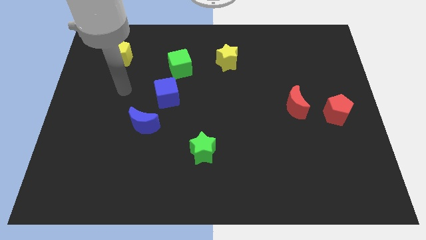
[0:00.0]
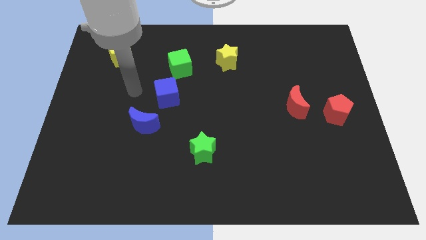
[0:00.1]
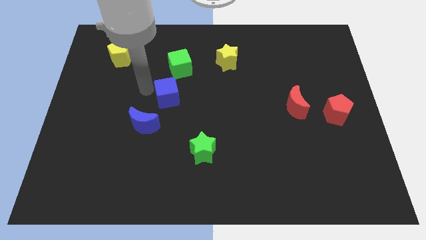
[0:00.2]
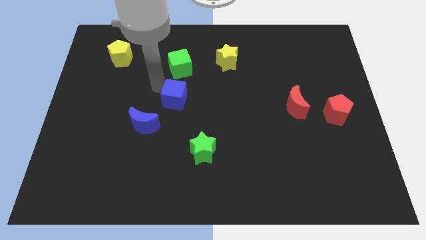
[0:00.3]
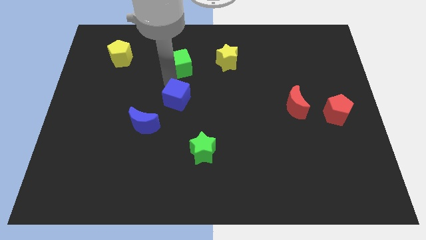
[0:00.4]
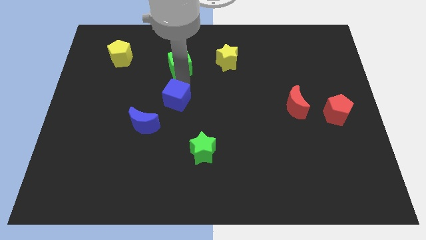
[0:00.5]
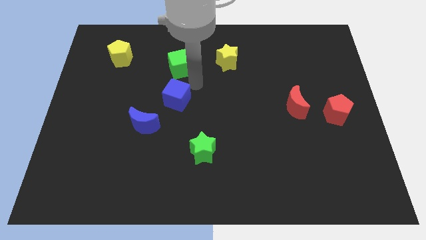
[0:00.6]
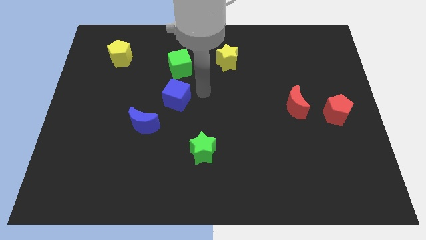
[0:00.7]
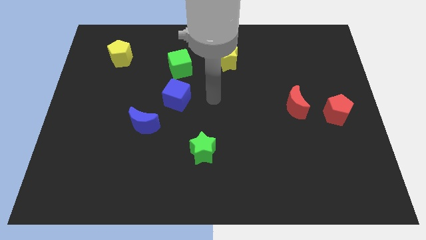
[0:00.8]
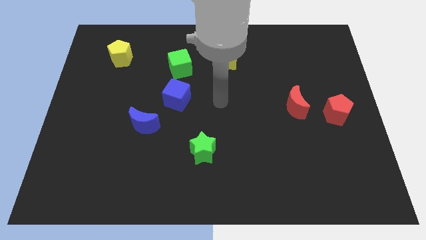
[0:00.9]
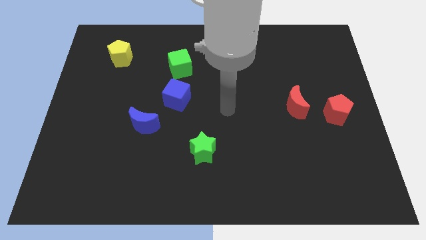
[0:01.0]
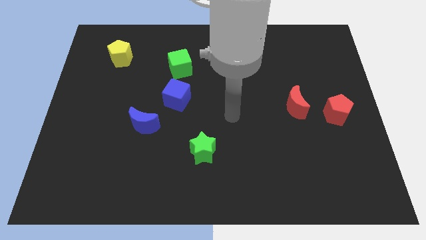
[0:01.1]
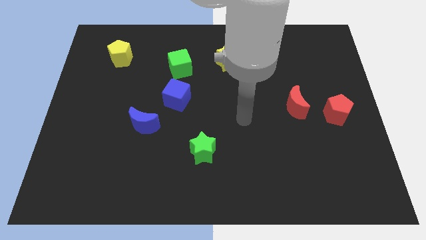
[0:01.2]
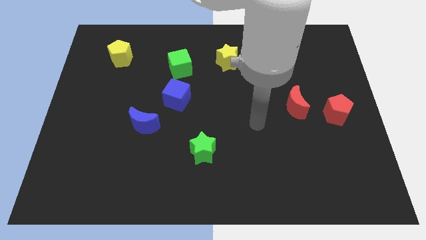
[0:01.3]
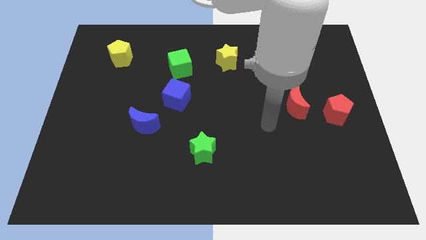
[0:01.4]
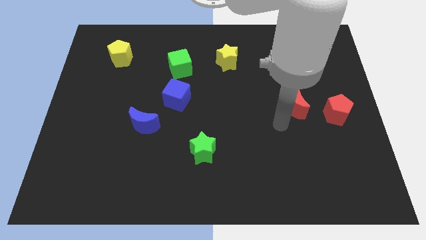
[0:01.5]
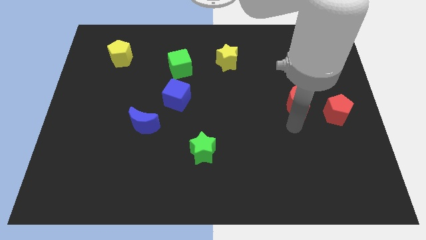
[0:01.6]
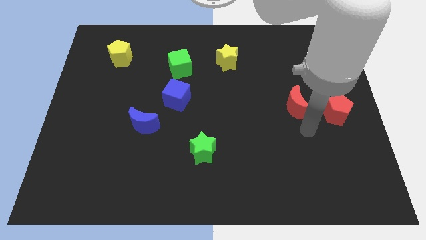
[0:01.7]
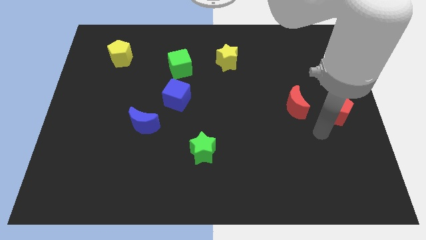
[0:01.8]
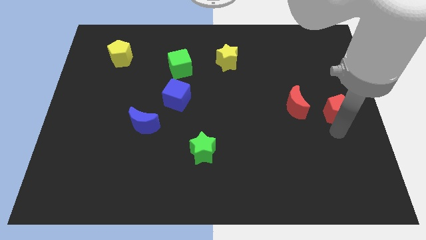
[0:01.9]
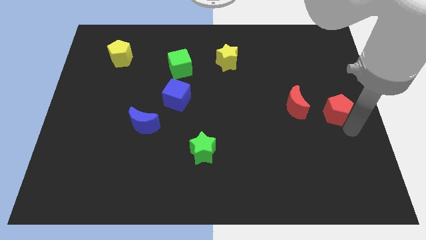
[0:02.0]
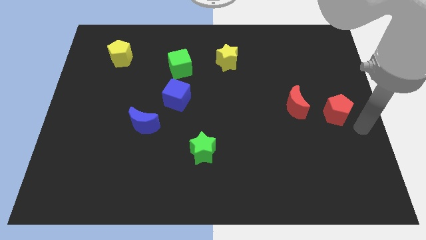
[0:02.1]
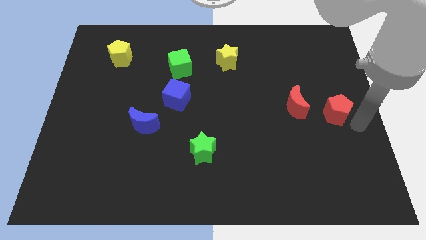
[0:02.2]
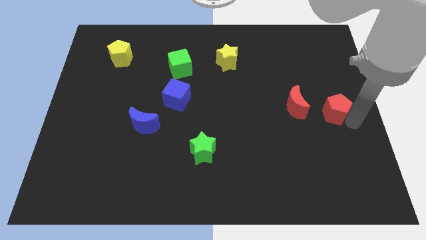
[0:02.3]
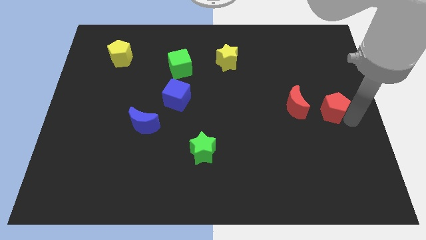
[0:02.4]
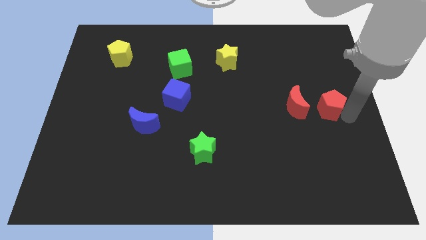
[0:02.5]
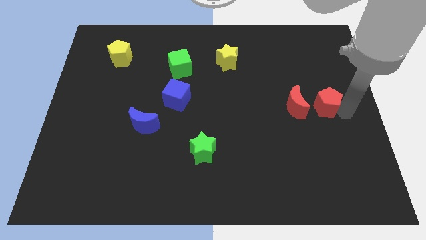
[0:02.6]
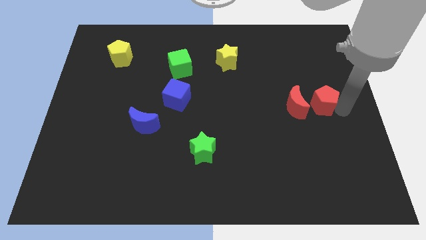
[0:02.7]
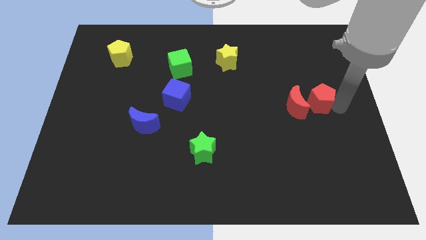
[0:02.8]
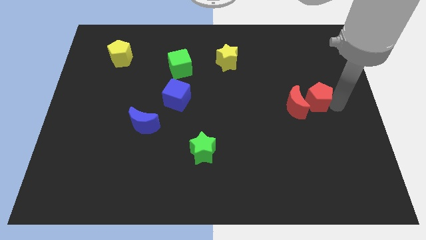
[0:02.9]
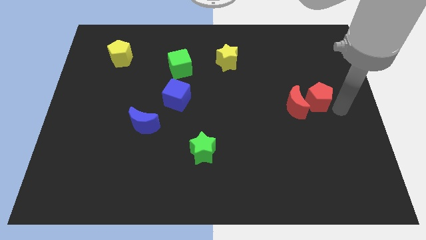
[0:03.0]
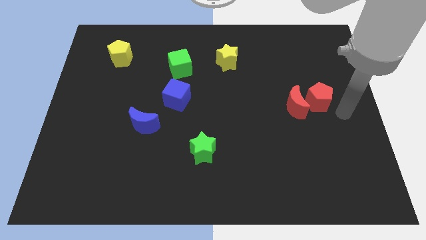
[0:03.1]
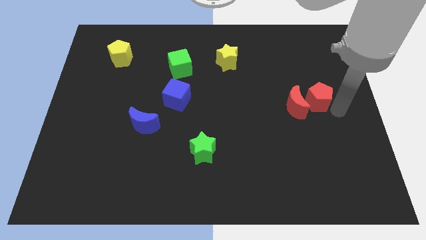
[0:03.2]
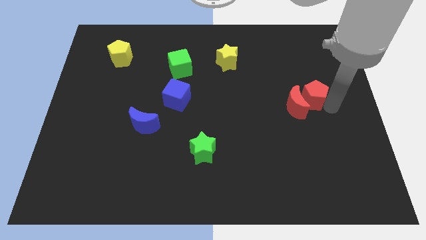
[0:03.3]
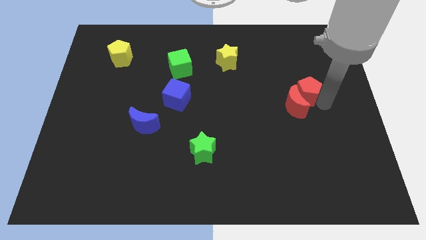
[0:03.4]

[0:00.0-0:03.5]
slightly push the red pentagon up and then left

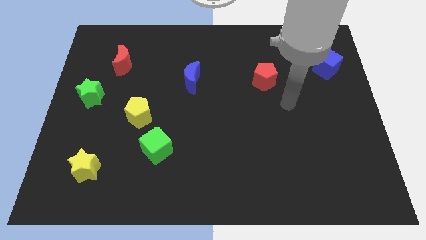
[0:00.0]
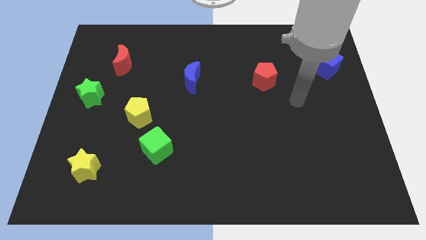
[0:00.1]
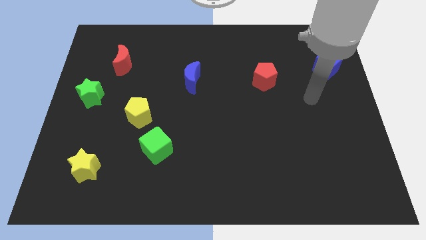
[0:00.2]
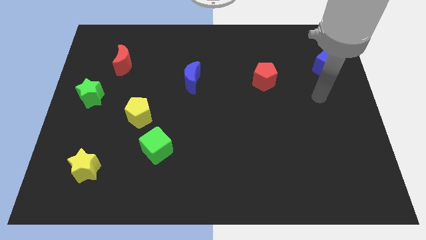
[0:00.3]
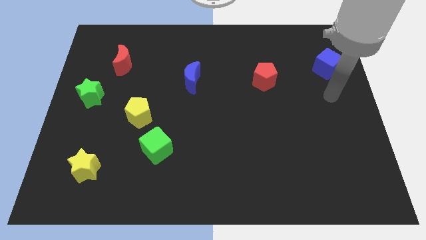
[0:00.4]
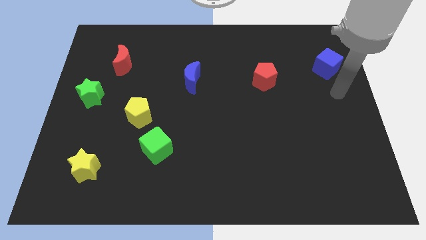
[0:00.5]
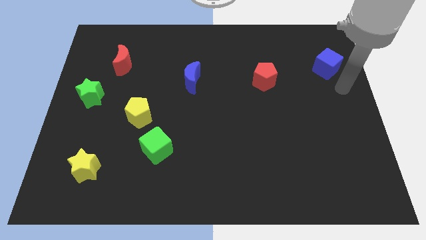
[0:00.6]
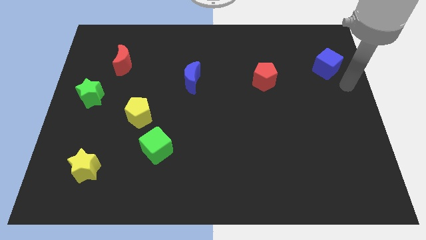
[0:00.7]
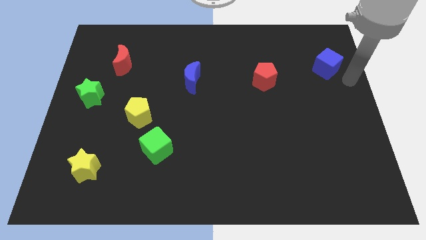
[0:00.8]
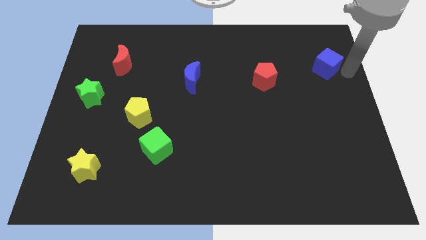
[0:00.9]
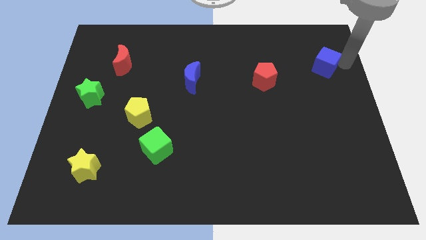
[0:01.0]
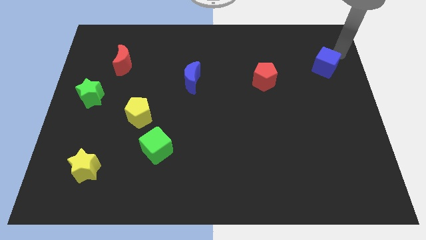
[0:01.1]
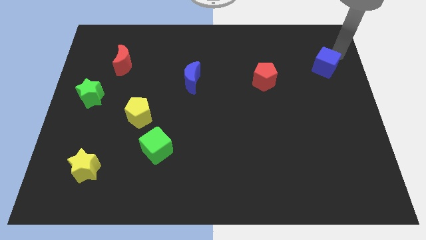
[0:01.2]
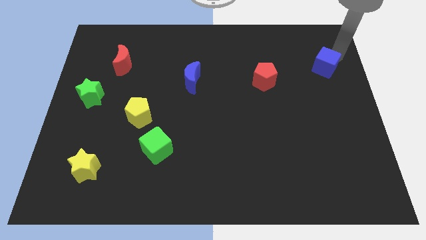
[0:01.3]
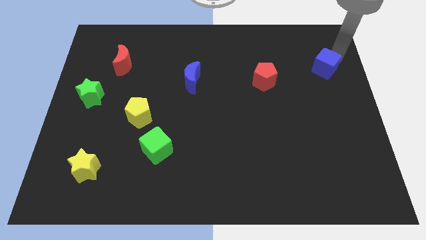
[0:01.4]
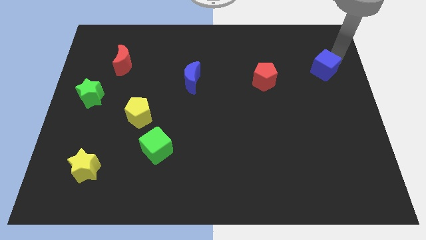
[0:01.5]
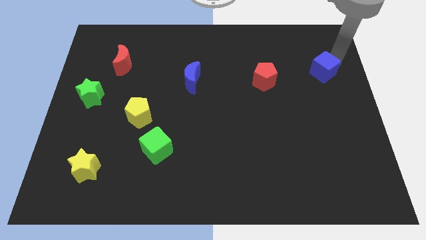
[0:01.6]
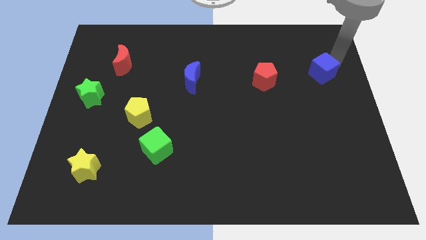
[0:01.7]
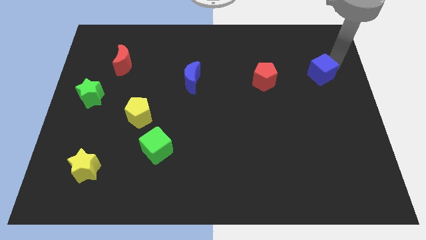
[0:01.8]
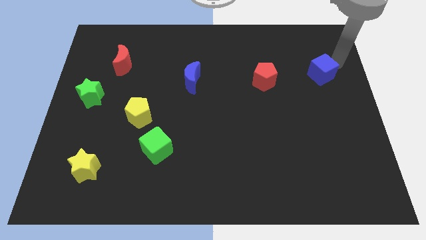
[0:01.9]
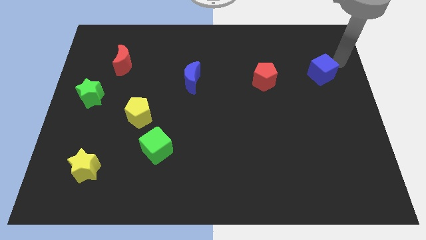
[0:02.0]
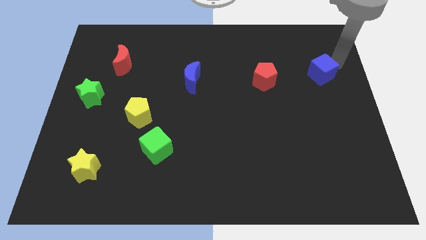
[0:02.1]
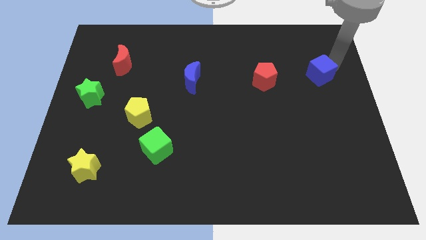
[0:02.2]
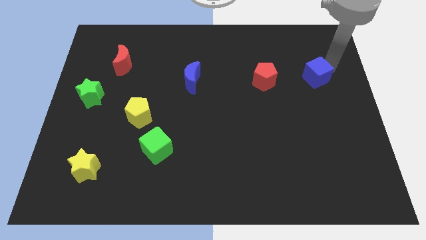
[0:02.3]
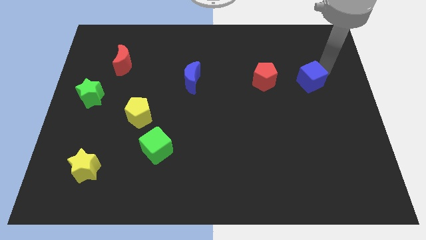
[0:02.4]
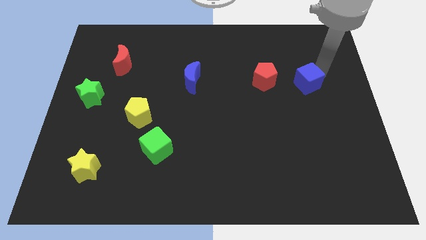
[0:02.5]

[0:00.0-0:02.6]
slide the blue cube slightly diagonally down and to the left

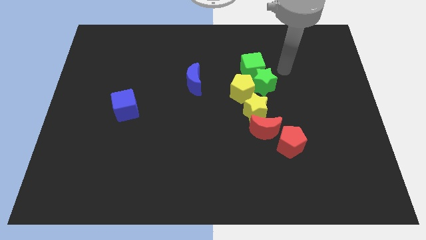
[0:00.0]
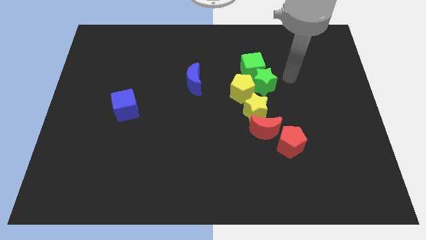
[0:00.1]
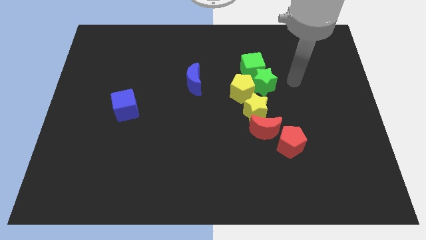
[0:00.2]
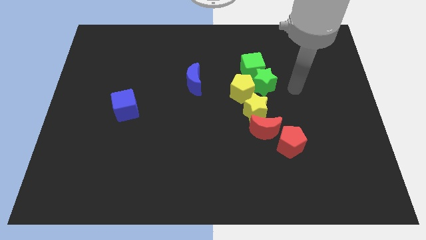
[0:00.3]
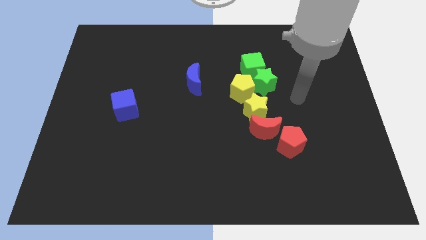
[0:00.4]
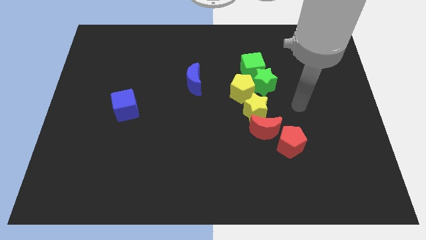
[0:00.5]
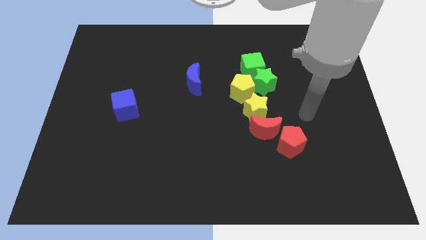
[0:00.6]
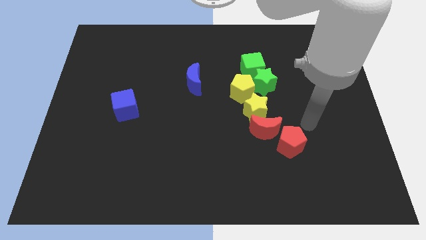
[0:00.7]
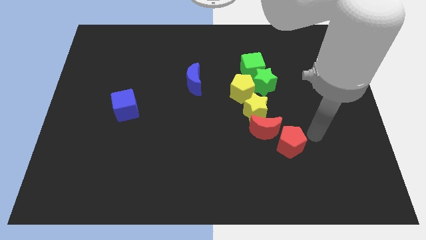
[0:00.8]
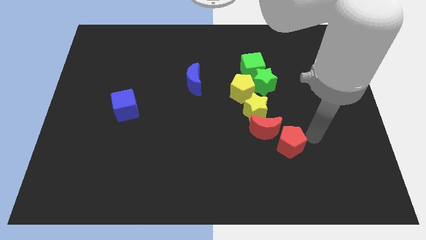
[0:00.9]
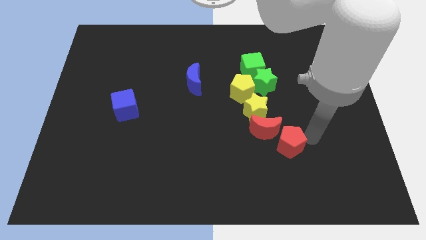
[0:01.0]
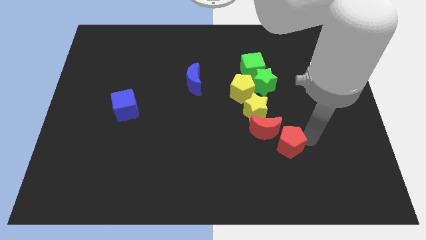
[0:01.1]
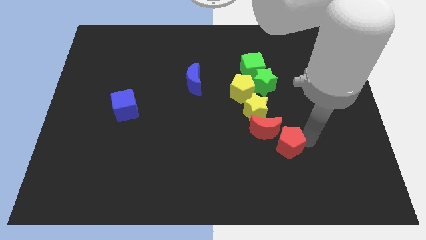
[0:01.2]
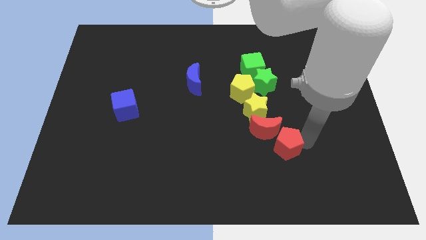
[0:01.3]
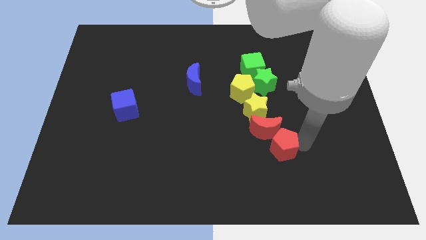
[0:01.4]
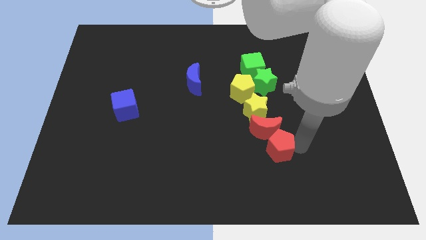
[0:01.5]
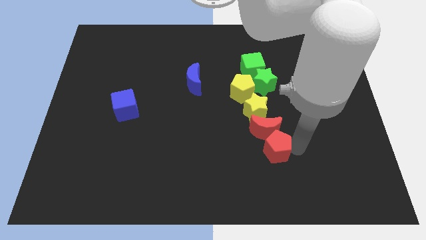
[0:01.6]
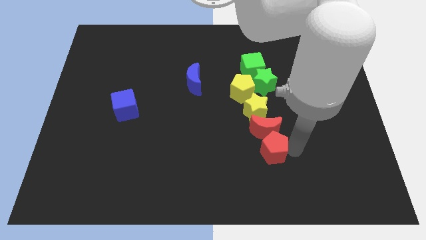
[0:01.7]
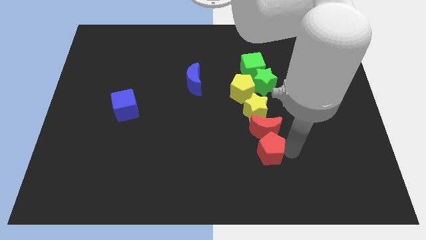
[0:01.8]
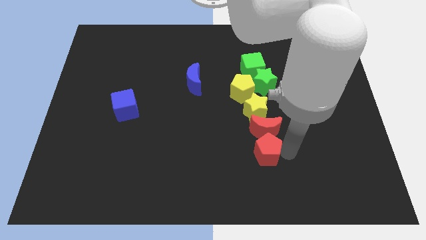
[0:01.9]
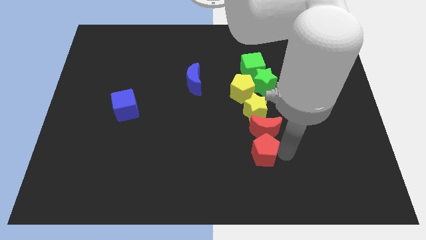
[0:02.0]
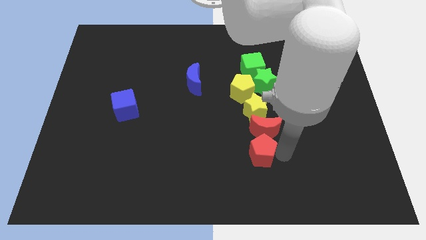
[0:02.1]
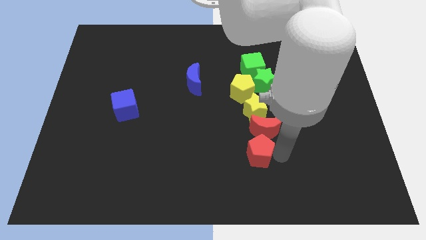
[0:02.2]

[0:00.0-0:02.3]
slightly move the red pentagon to the left
